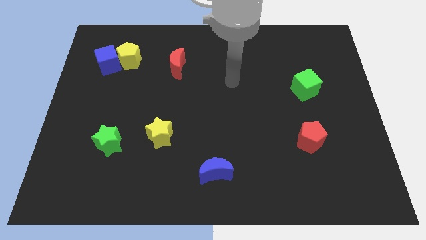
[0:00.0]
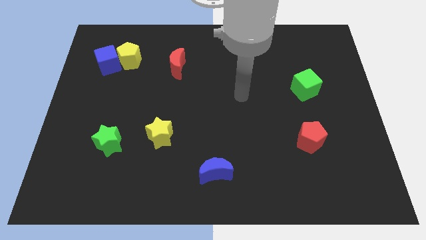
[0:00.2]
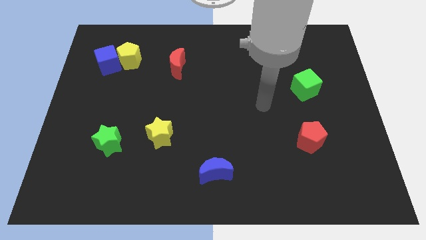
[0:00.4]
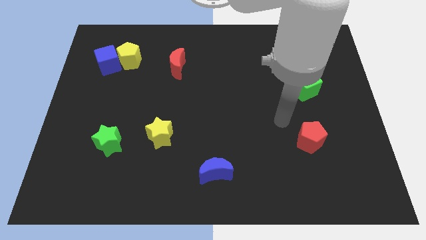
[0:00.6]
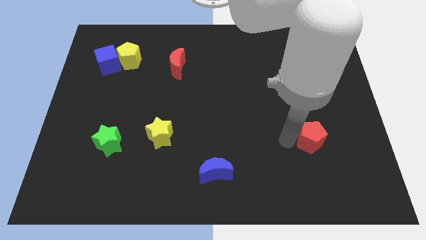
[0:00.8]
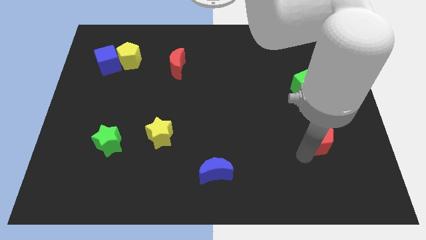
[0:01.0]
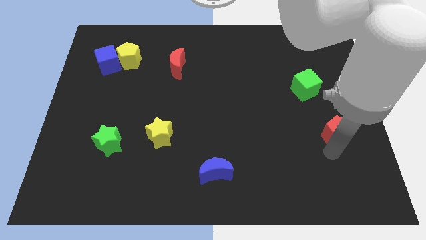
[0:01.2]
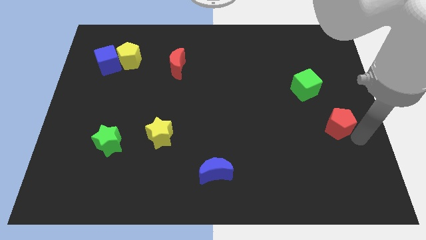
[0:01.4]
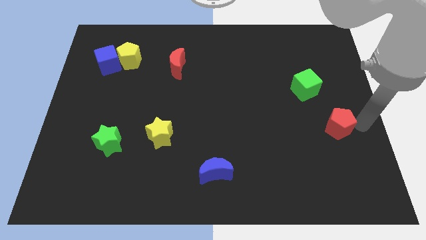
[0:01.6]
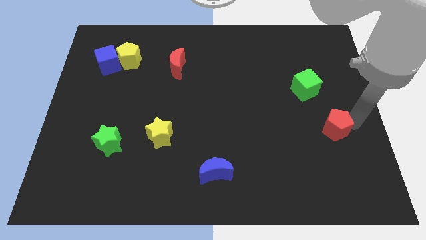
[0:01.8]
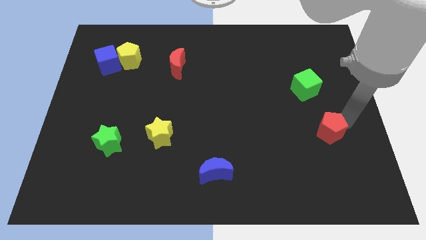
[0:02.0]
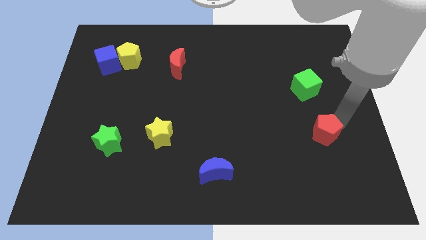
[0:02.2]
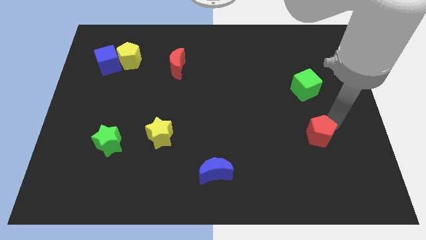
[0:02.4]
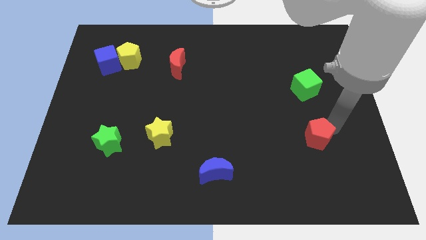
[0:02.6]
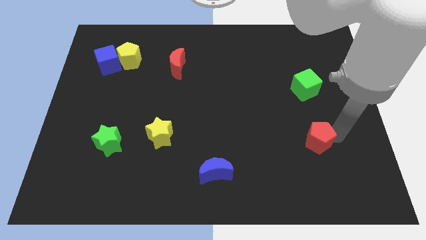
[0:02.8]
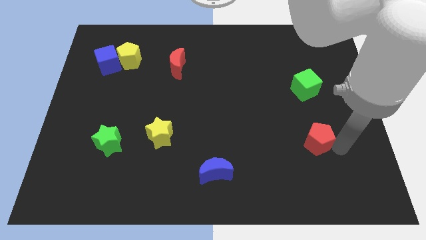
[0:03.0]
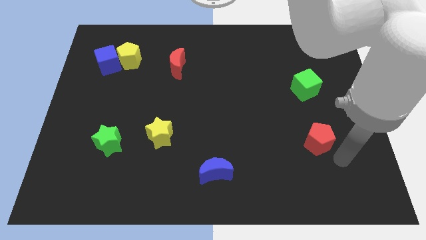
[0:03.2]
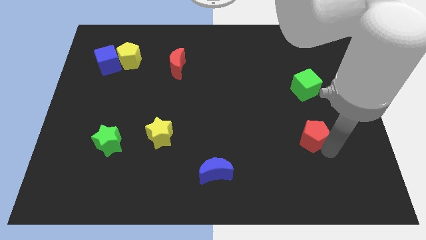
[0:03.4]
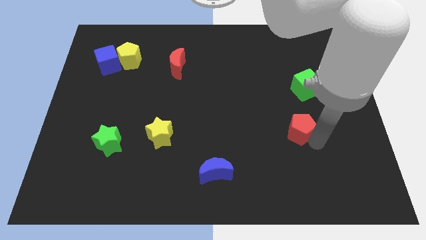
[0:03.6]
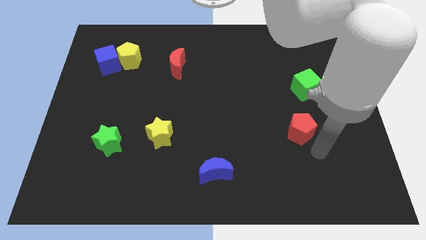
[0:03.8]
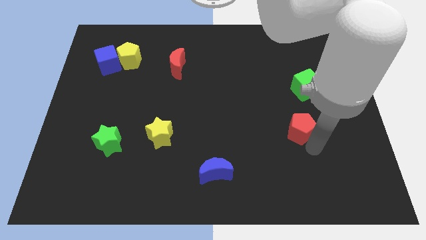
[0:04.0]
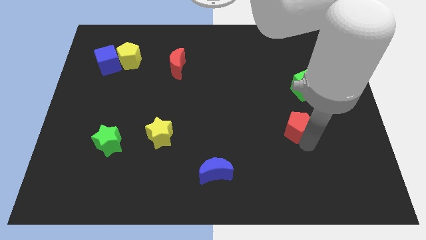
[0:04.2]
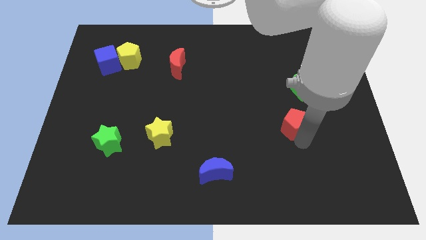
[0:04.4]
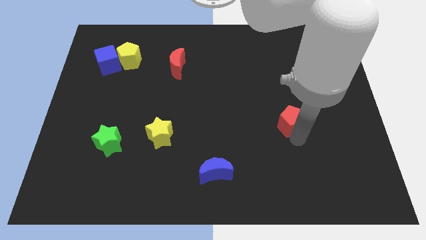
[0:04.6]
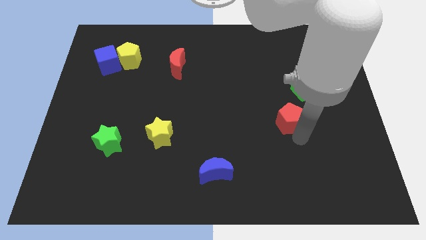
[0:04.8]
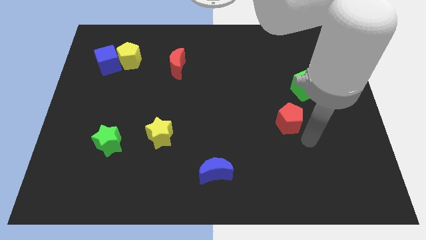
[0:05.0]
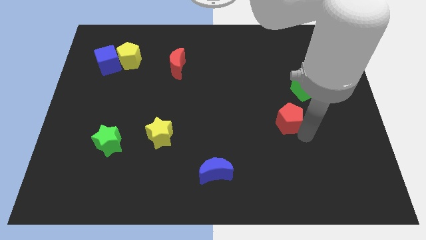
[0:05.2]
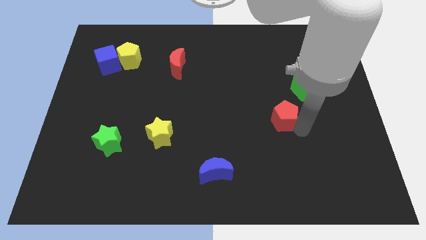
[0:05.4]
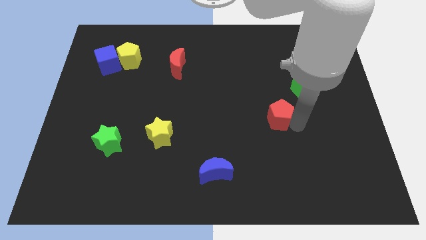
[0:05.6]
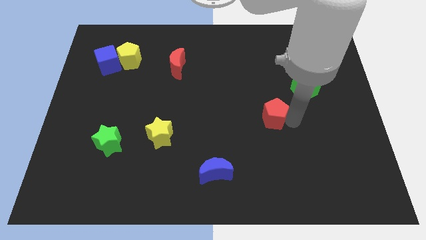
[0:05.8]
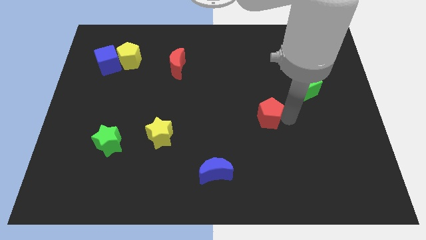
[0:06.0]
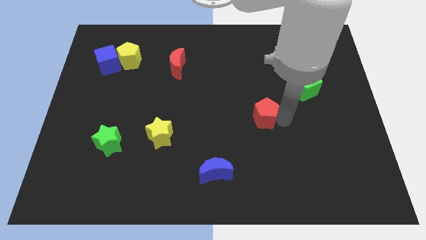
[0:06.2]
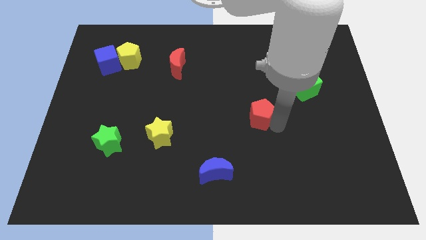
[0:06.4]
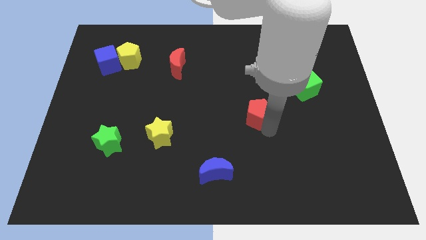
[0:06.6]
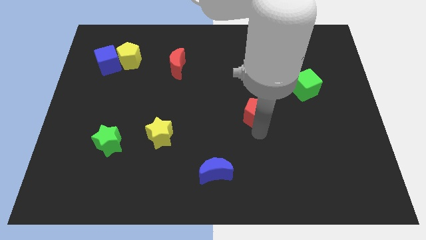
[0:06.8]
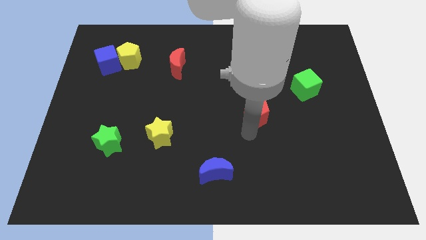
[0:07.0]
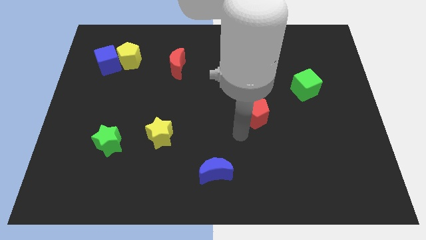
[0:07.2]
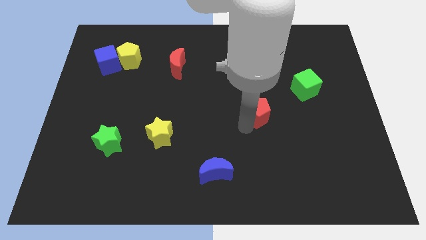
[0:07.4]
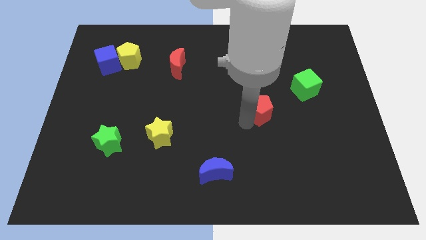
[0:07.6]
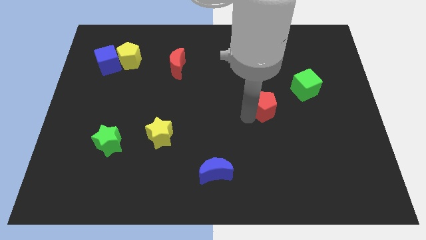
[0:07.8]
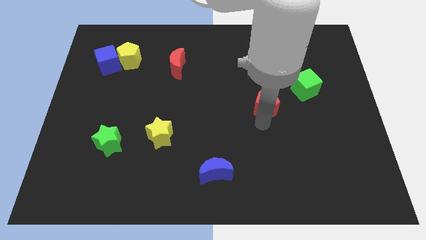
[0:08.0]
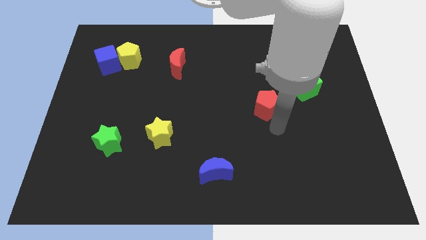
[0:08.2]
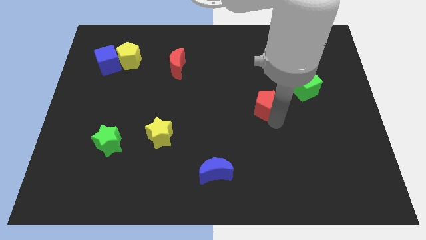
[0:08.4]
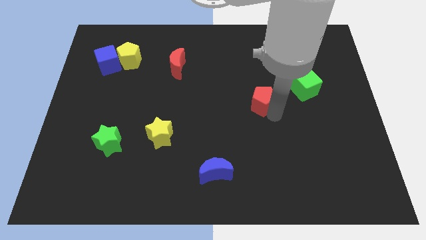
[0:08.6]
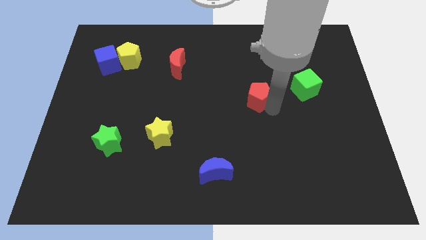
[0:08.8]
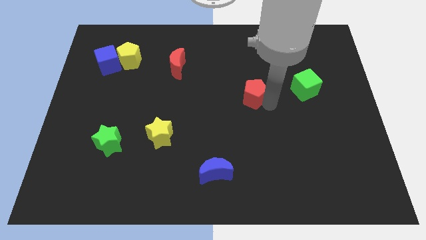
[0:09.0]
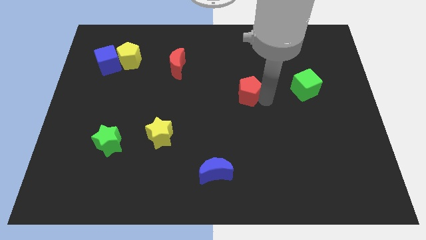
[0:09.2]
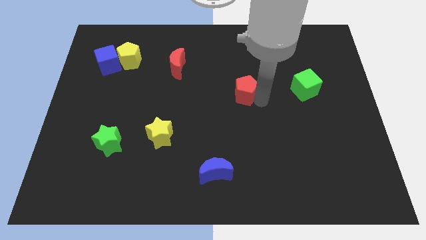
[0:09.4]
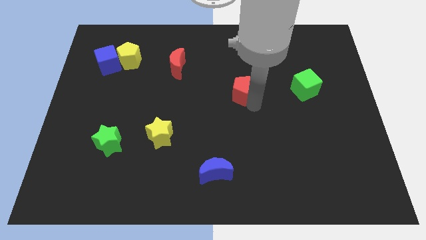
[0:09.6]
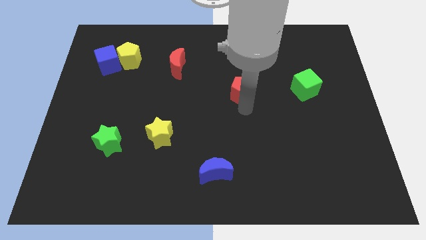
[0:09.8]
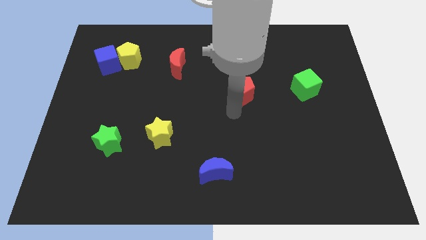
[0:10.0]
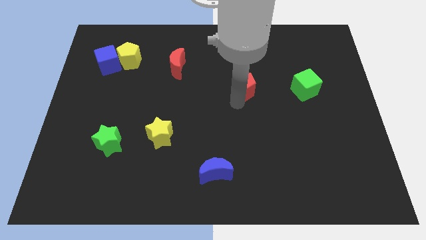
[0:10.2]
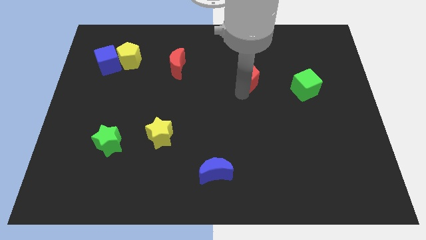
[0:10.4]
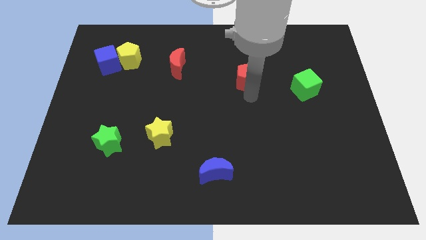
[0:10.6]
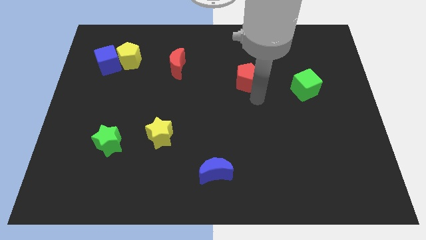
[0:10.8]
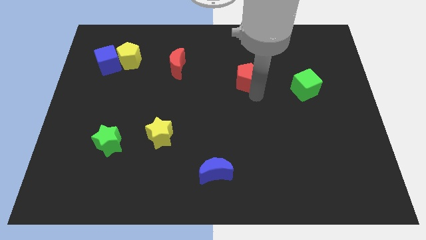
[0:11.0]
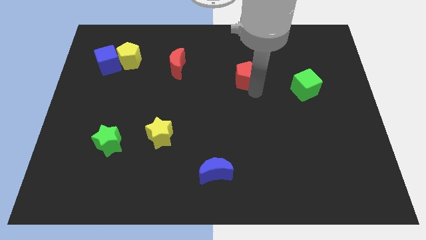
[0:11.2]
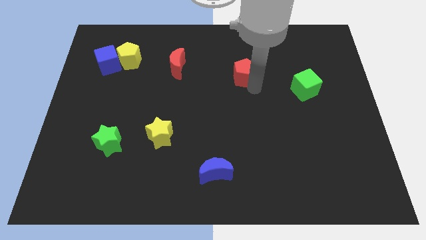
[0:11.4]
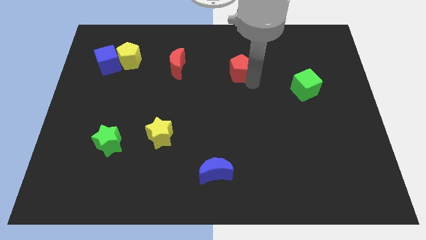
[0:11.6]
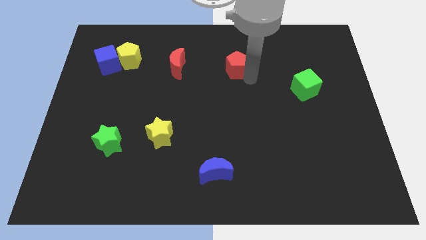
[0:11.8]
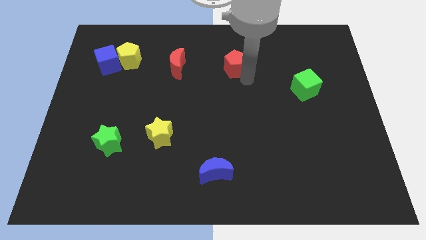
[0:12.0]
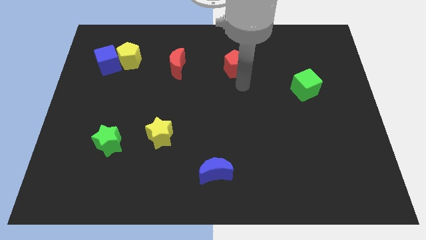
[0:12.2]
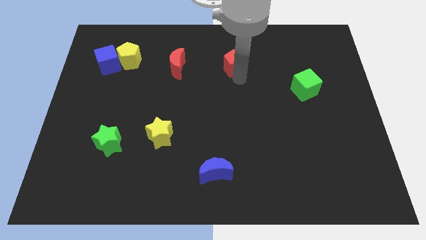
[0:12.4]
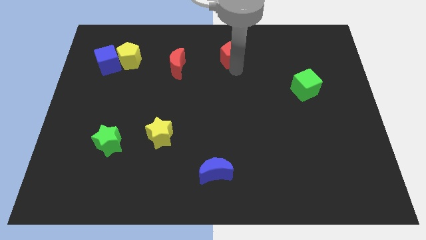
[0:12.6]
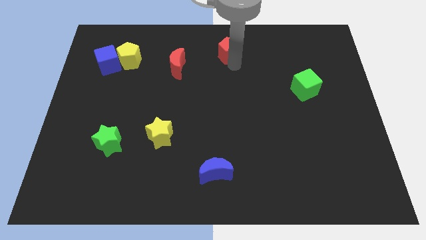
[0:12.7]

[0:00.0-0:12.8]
slide the red pentagon to the top side
